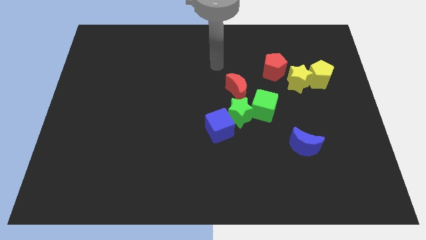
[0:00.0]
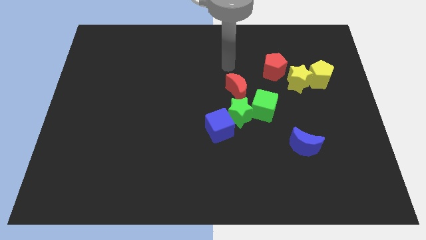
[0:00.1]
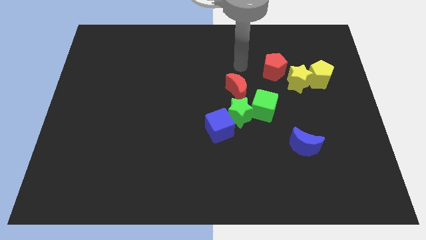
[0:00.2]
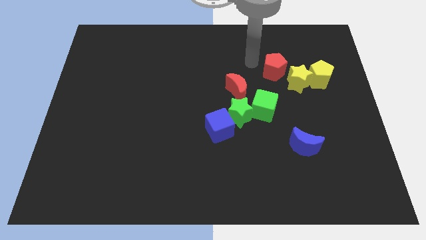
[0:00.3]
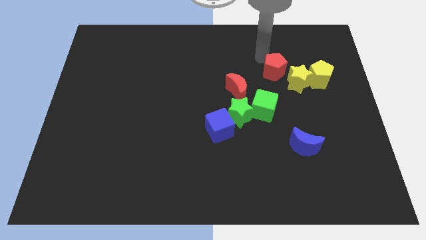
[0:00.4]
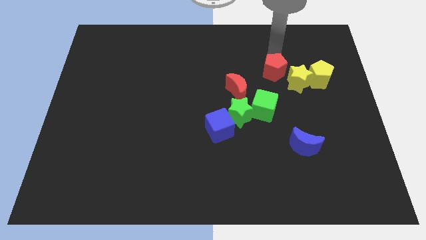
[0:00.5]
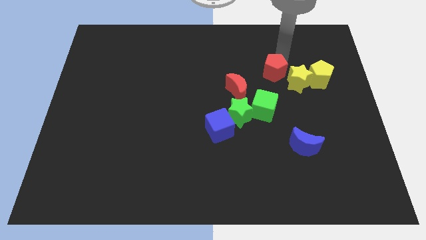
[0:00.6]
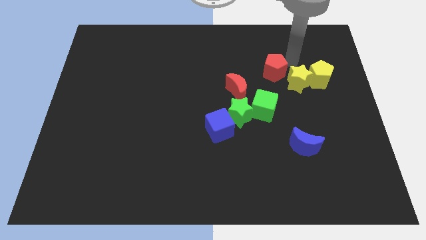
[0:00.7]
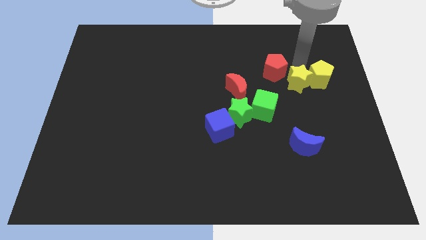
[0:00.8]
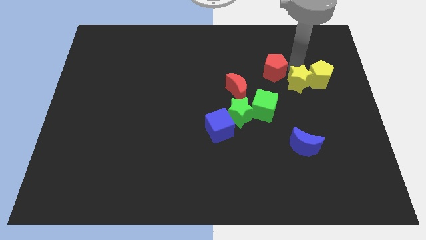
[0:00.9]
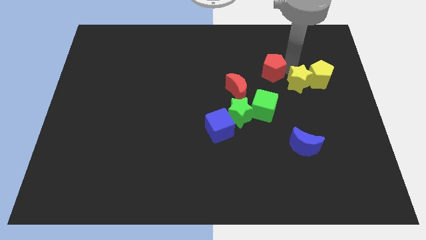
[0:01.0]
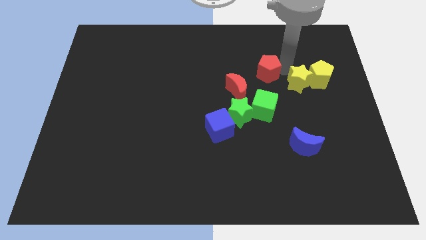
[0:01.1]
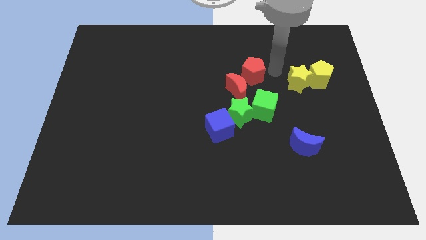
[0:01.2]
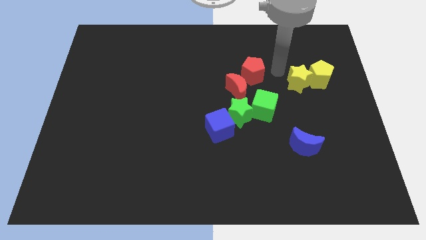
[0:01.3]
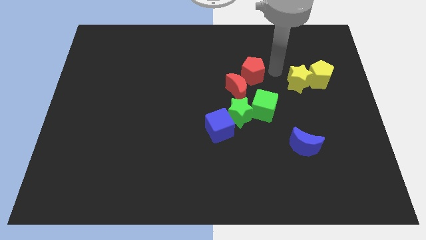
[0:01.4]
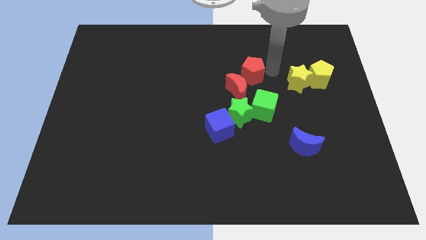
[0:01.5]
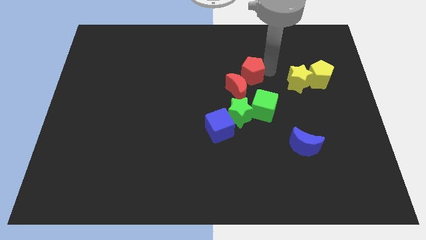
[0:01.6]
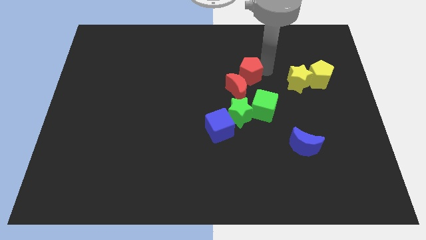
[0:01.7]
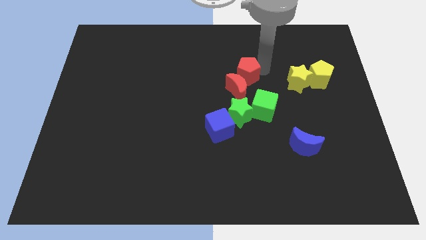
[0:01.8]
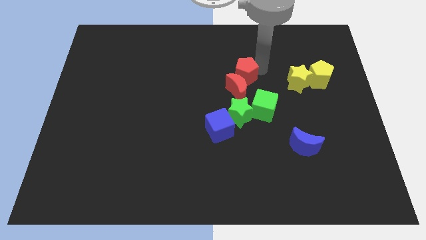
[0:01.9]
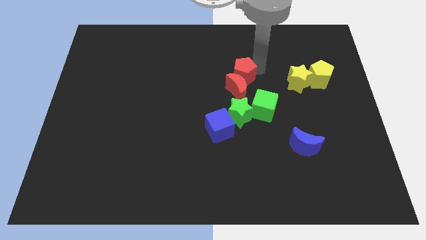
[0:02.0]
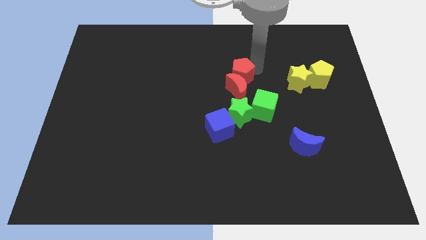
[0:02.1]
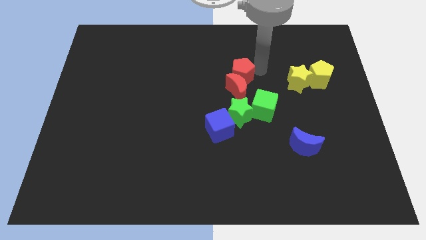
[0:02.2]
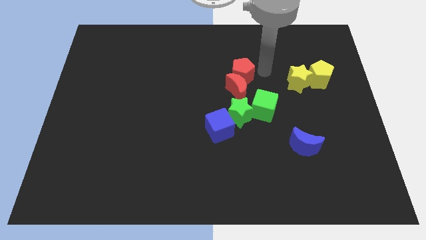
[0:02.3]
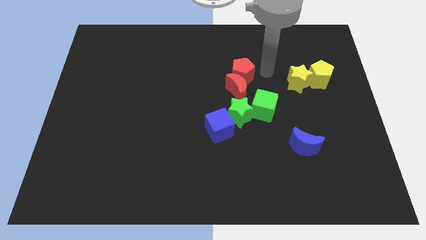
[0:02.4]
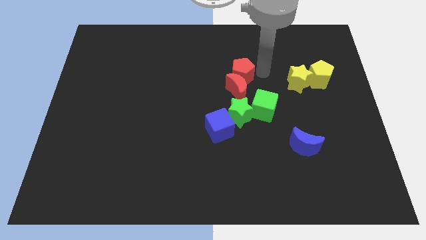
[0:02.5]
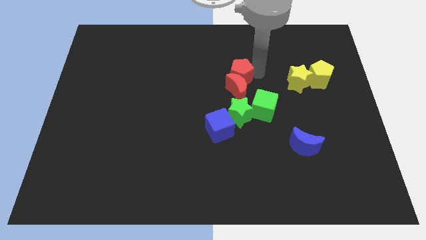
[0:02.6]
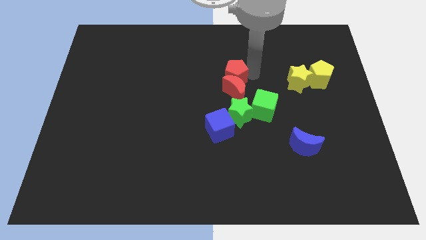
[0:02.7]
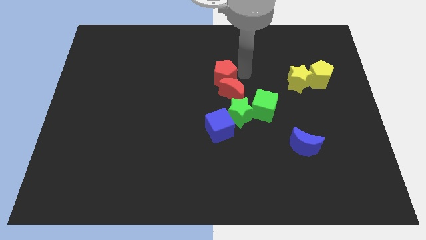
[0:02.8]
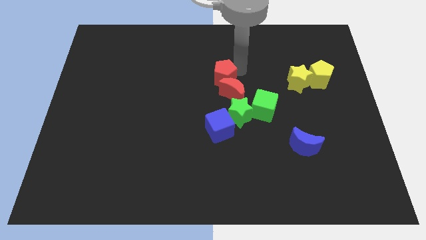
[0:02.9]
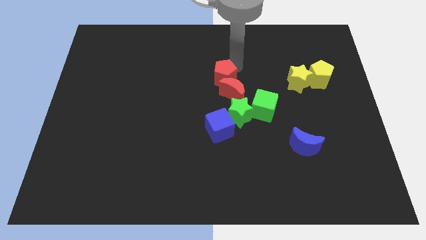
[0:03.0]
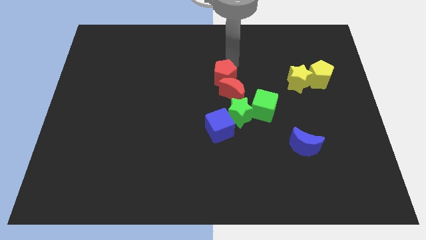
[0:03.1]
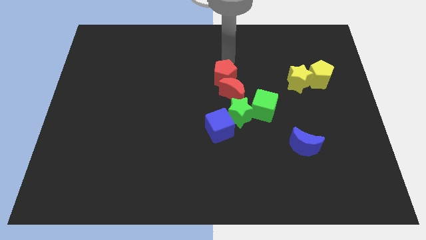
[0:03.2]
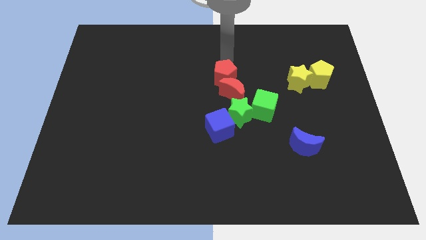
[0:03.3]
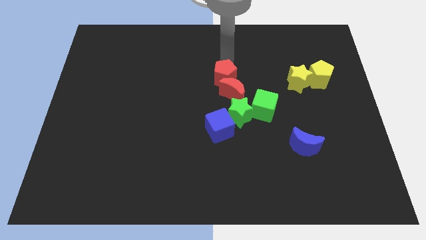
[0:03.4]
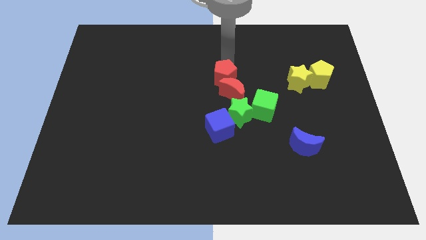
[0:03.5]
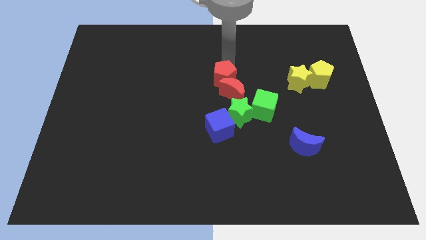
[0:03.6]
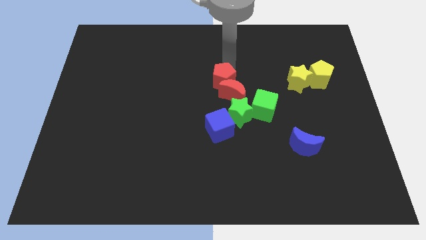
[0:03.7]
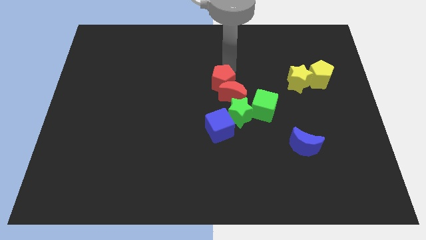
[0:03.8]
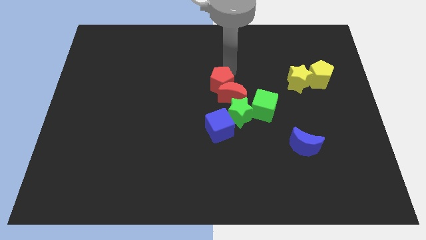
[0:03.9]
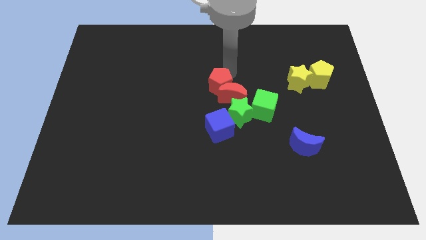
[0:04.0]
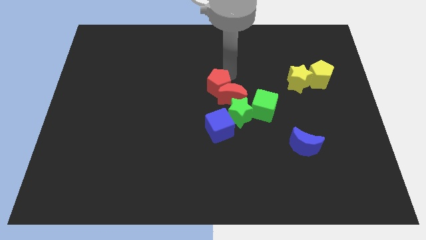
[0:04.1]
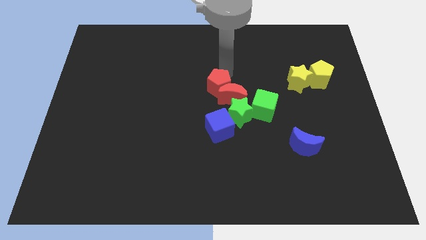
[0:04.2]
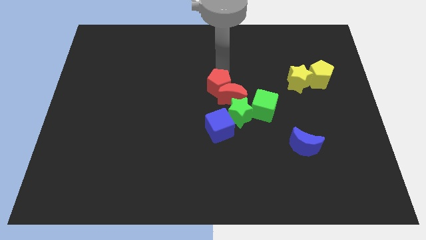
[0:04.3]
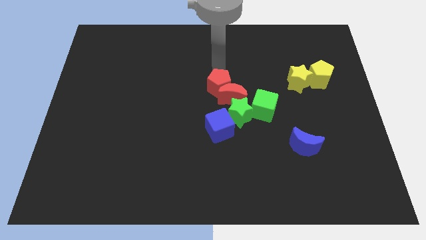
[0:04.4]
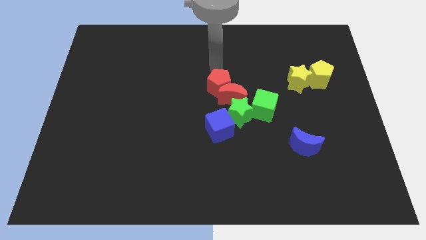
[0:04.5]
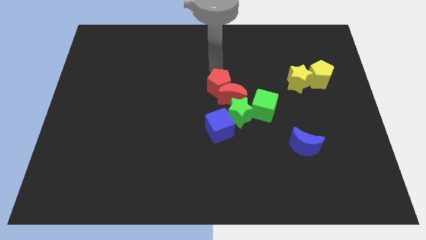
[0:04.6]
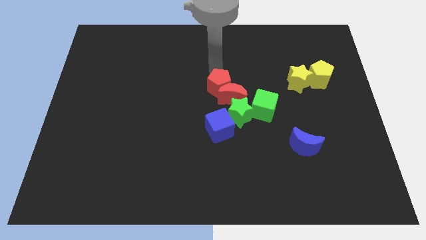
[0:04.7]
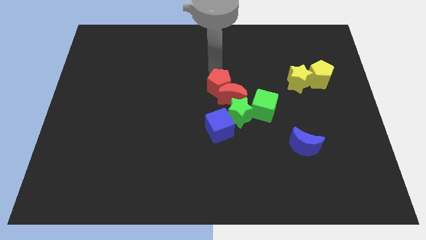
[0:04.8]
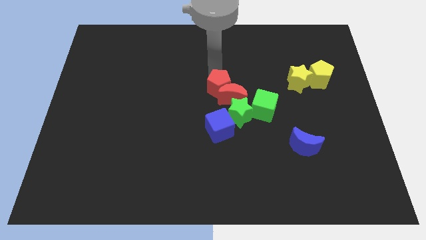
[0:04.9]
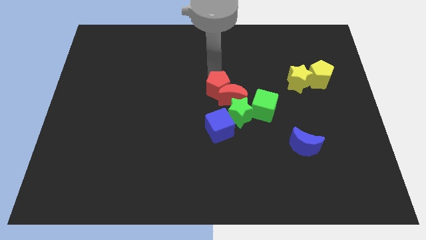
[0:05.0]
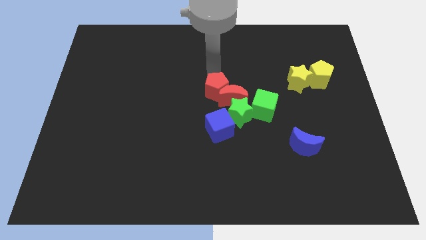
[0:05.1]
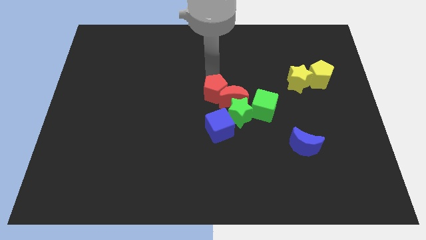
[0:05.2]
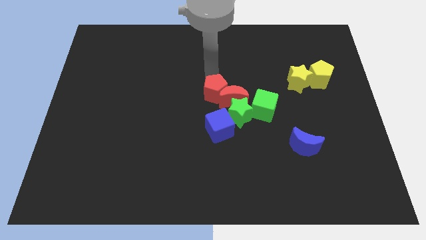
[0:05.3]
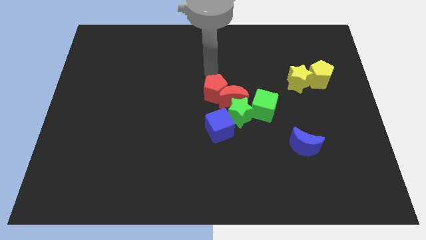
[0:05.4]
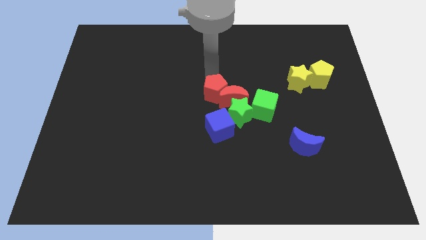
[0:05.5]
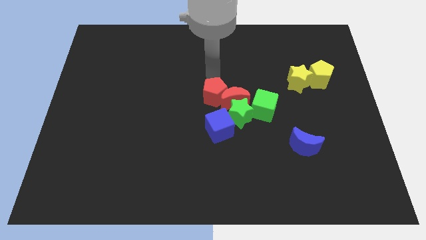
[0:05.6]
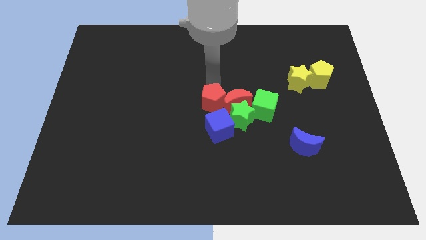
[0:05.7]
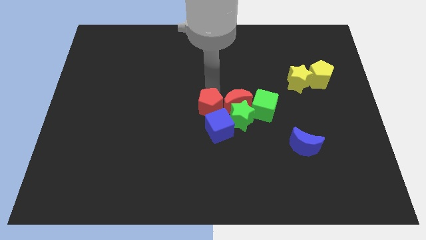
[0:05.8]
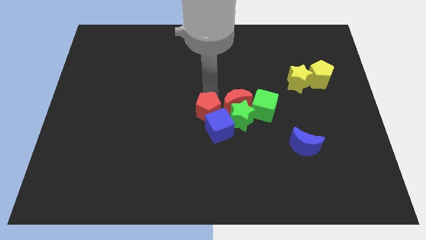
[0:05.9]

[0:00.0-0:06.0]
push the red pentagon next to the blue cube

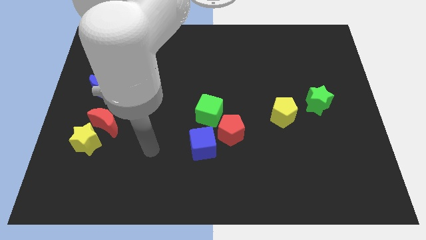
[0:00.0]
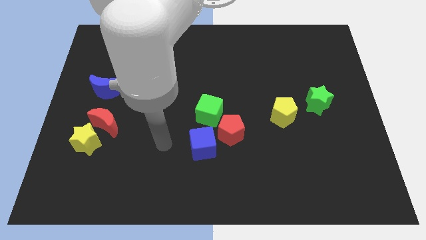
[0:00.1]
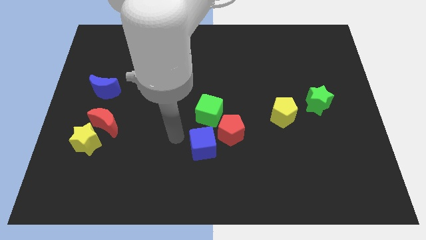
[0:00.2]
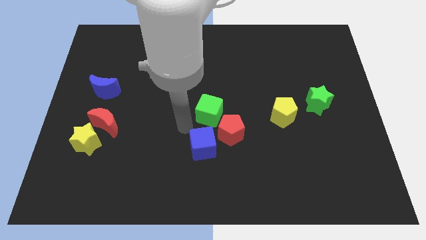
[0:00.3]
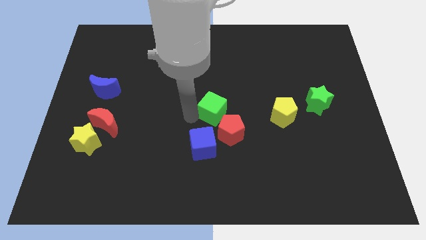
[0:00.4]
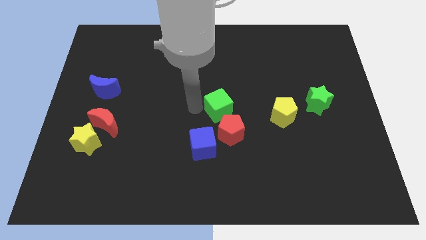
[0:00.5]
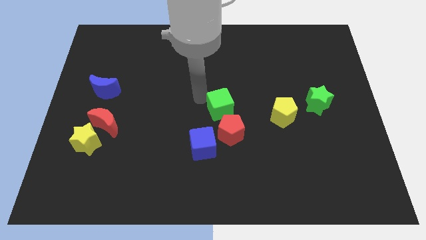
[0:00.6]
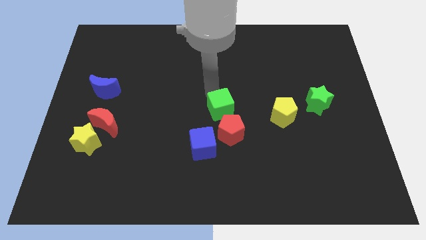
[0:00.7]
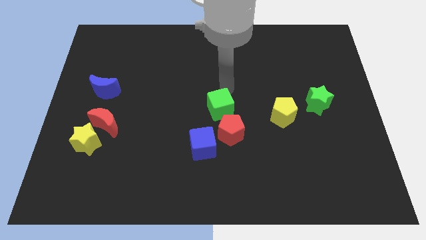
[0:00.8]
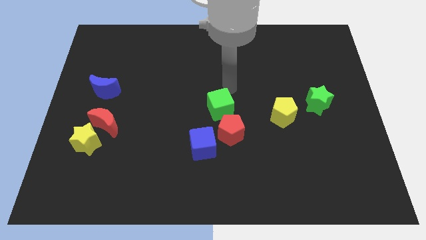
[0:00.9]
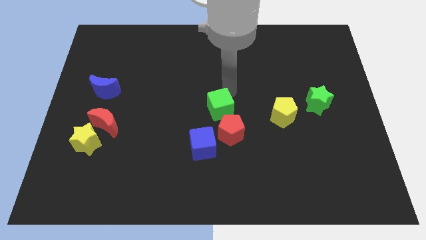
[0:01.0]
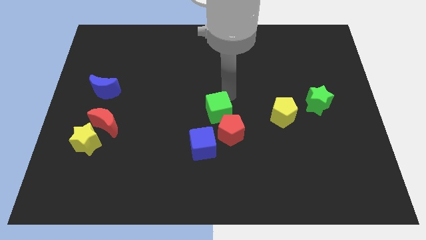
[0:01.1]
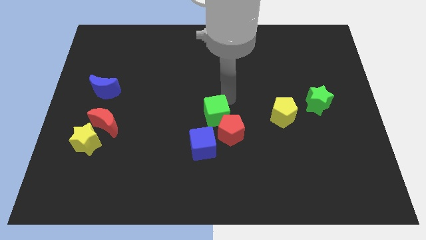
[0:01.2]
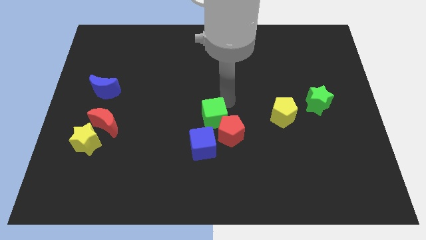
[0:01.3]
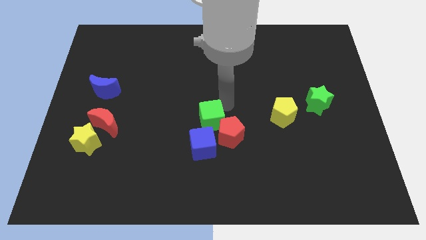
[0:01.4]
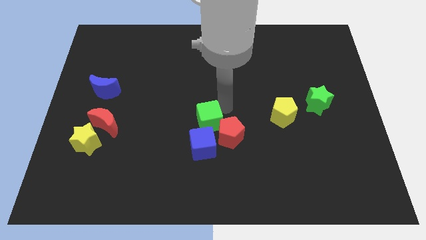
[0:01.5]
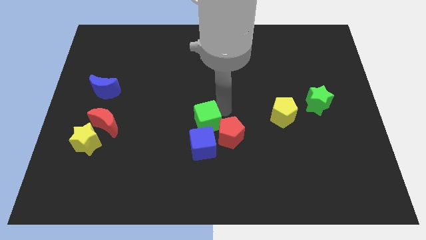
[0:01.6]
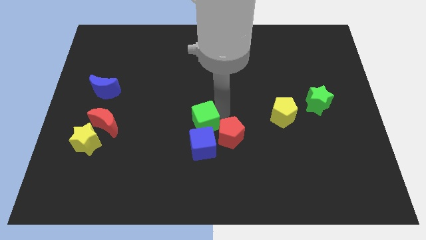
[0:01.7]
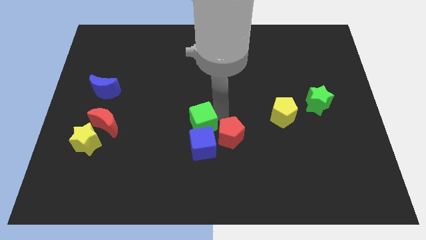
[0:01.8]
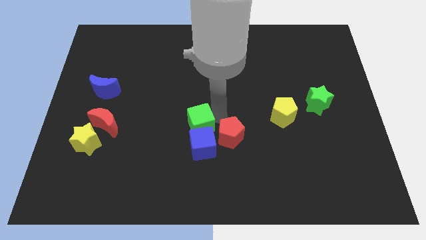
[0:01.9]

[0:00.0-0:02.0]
put the green cube close to the blue cube
